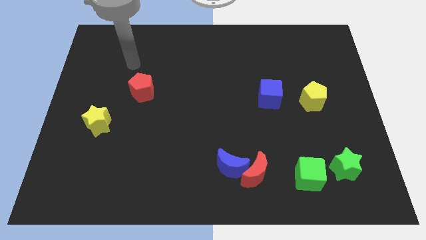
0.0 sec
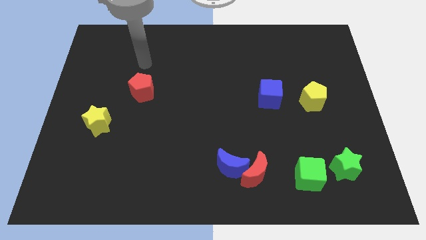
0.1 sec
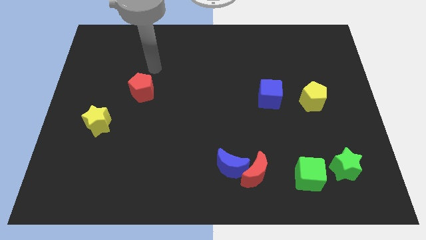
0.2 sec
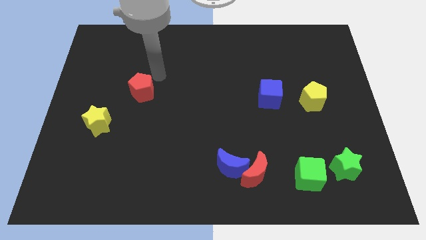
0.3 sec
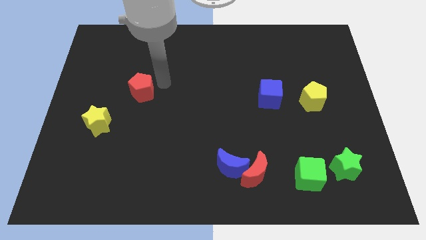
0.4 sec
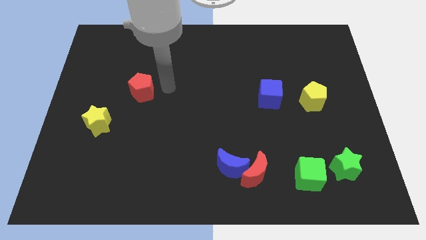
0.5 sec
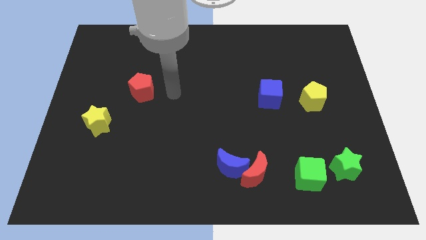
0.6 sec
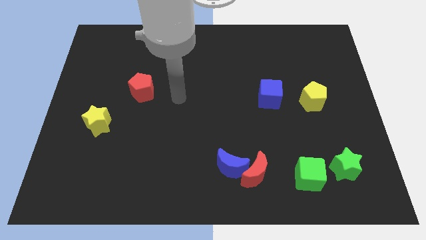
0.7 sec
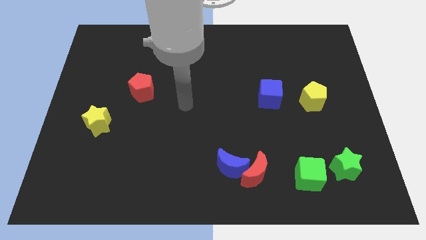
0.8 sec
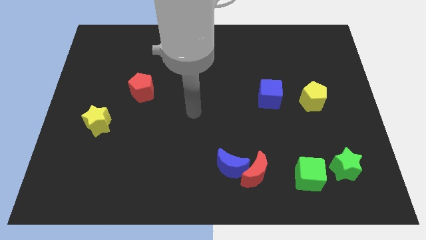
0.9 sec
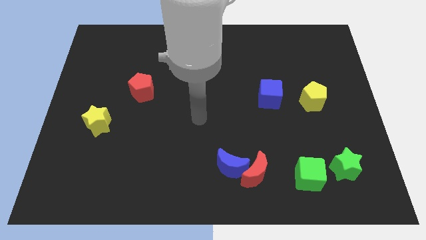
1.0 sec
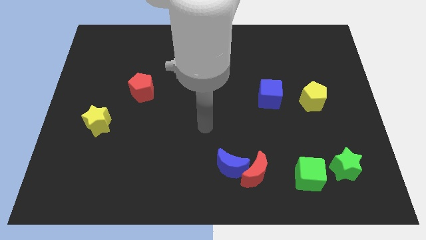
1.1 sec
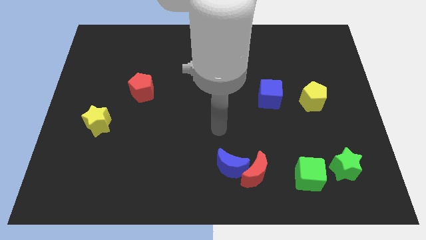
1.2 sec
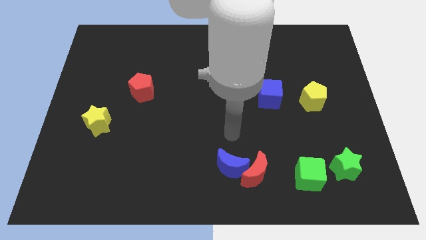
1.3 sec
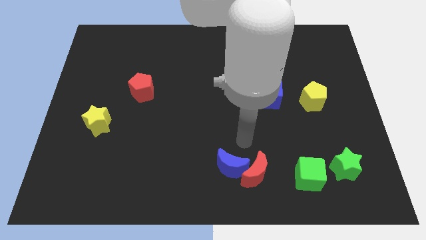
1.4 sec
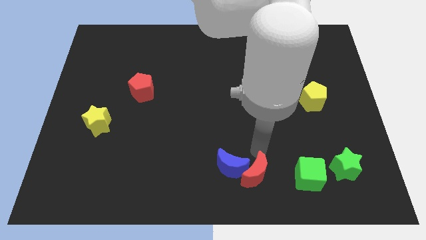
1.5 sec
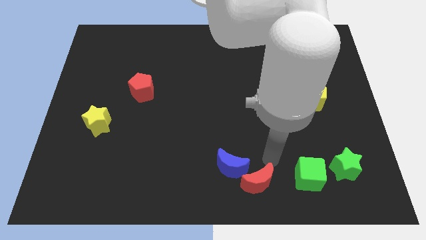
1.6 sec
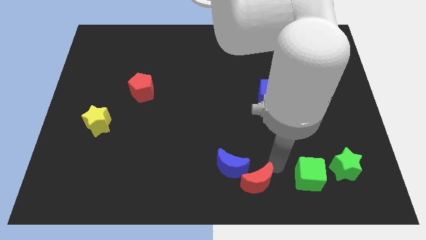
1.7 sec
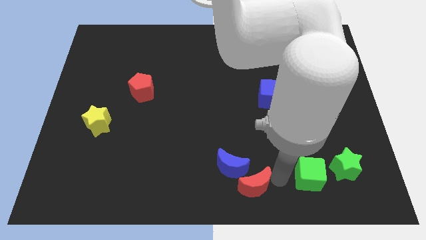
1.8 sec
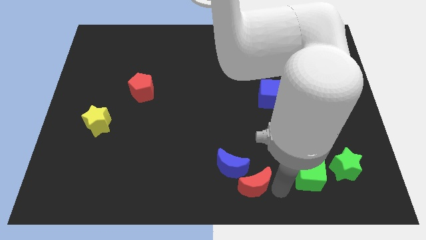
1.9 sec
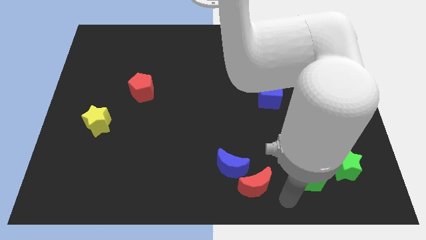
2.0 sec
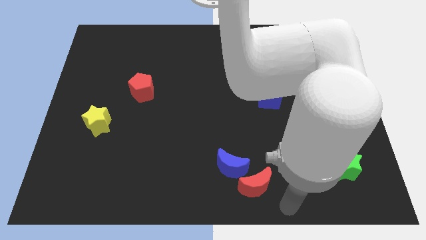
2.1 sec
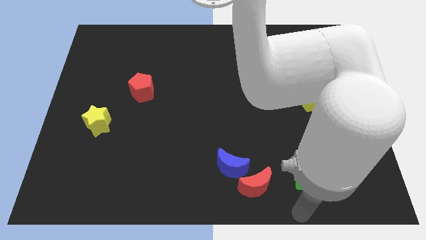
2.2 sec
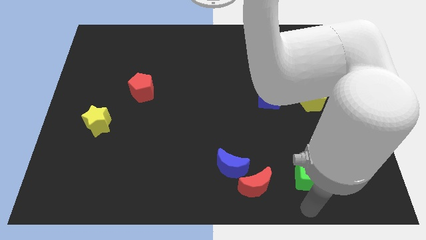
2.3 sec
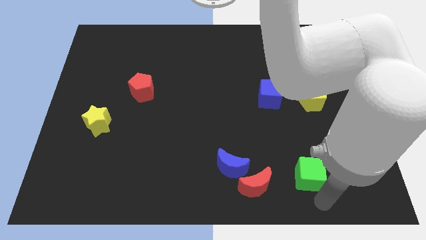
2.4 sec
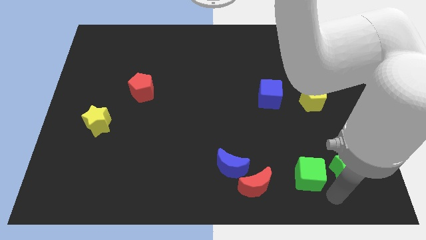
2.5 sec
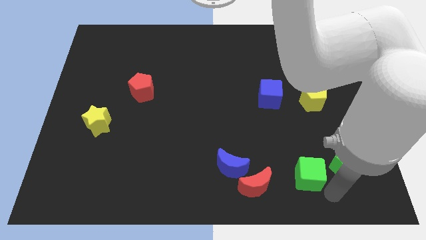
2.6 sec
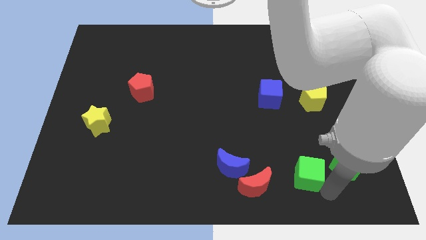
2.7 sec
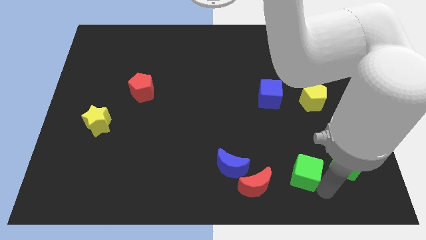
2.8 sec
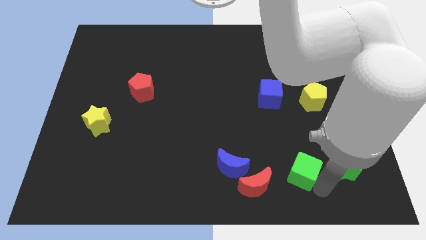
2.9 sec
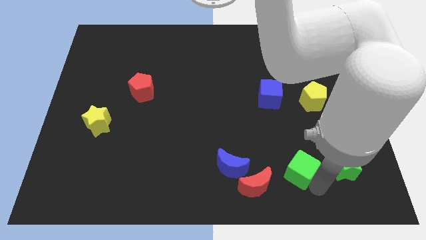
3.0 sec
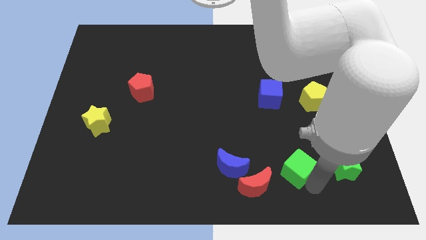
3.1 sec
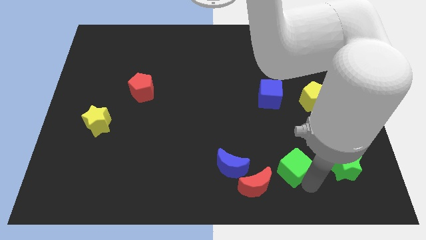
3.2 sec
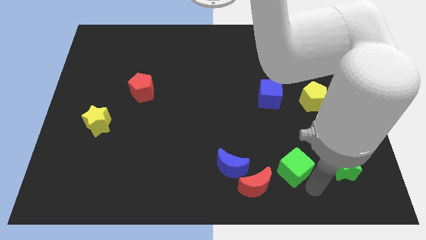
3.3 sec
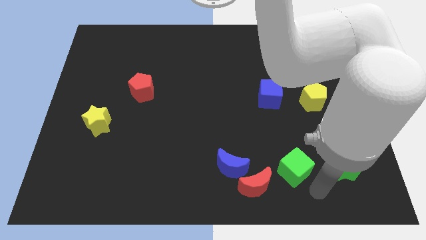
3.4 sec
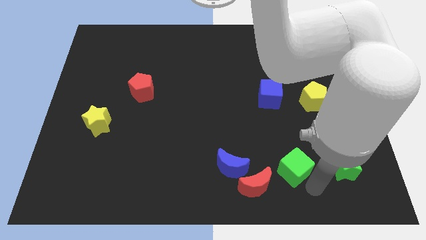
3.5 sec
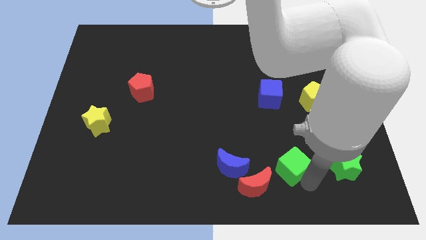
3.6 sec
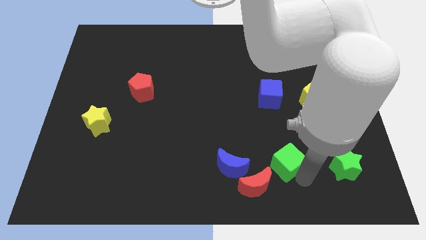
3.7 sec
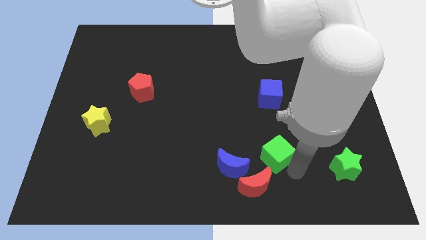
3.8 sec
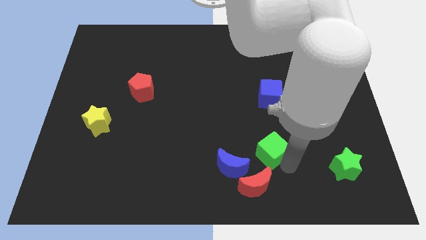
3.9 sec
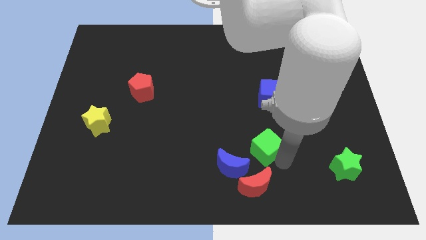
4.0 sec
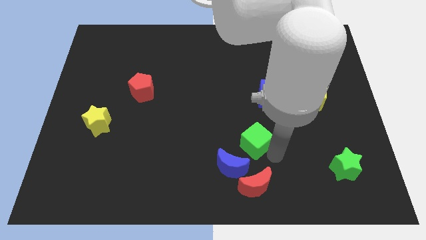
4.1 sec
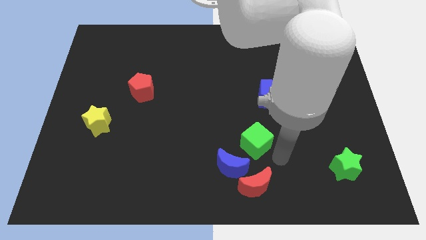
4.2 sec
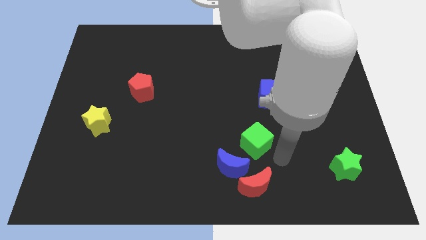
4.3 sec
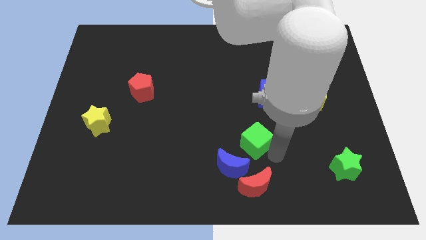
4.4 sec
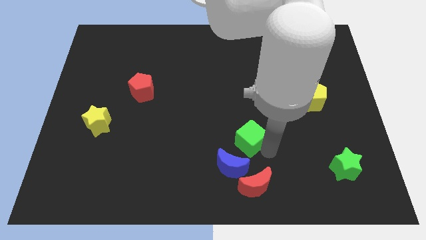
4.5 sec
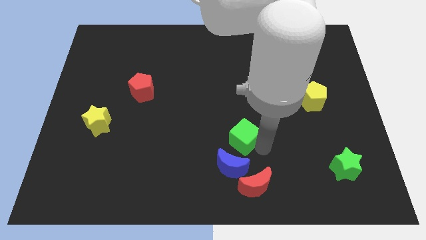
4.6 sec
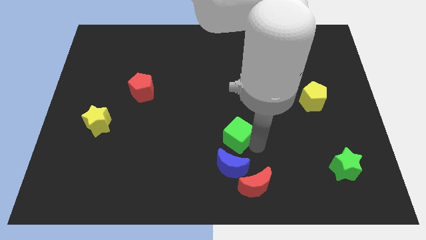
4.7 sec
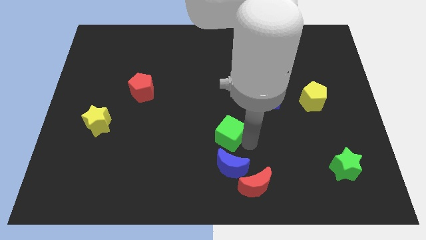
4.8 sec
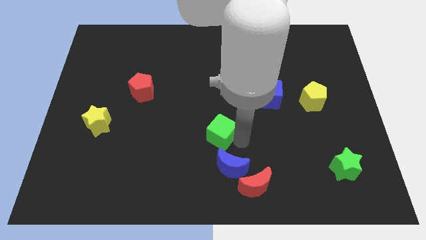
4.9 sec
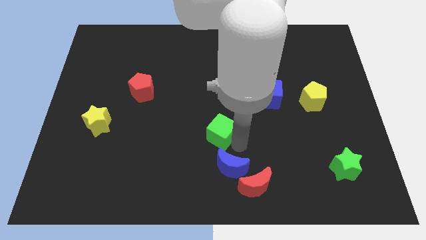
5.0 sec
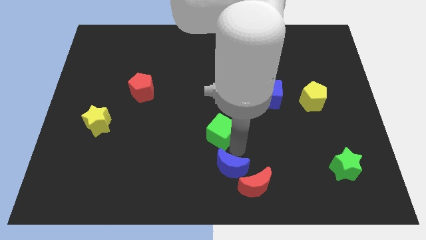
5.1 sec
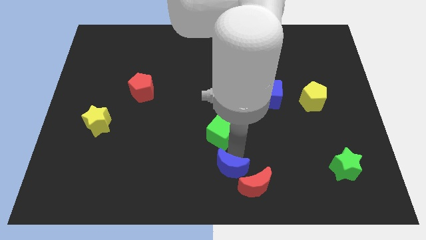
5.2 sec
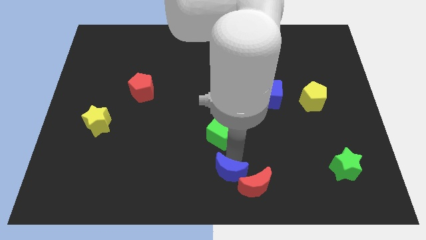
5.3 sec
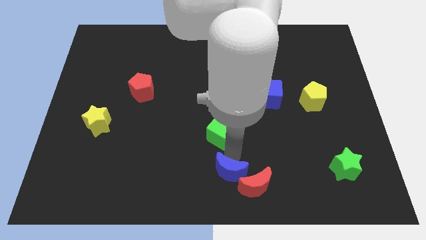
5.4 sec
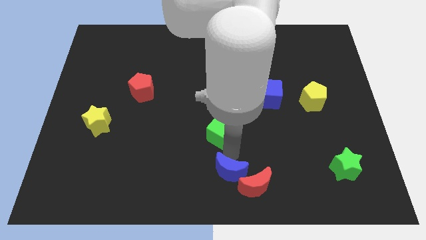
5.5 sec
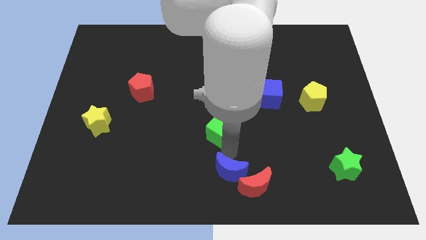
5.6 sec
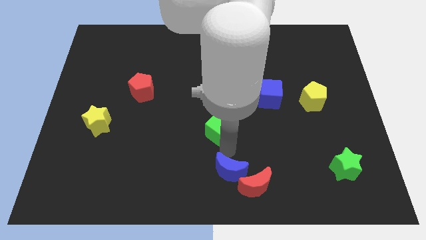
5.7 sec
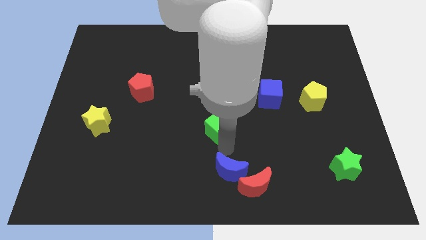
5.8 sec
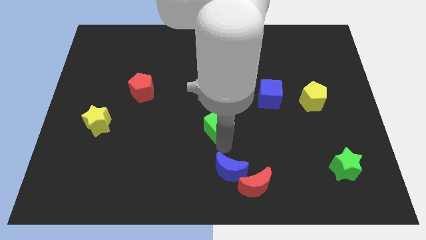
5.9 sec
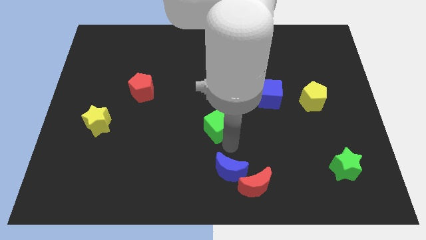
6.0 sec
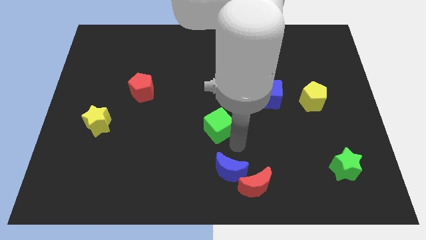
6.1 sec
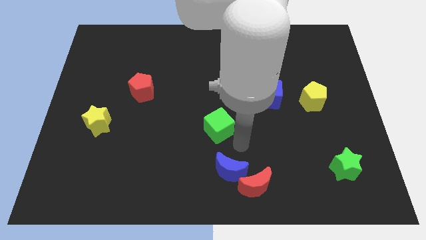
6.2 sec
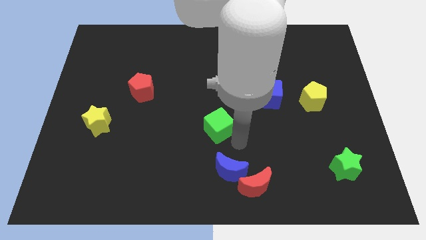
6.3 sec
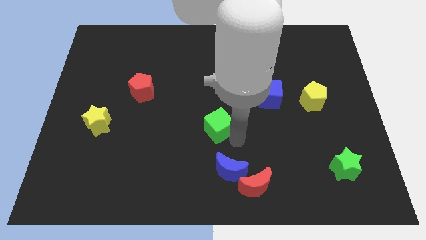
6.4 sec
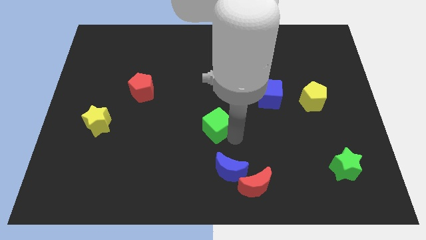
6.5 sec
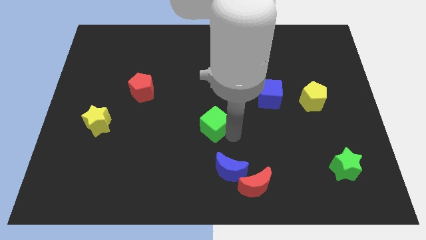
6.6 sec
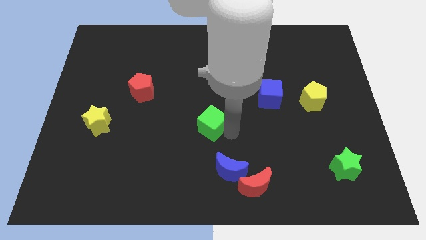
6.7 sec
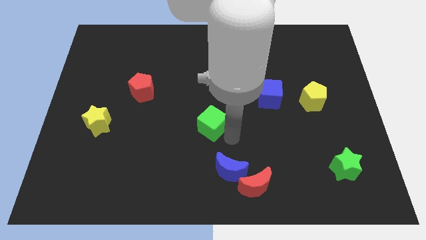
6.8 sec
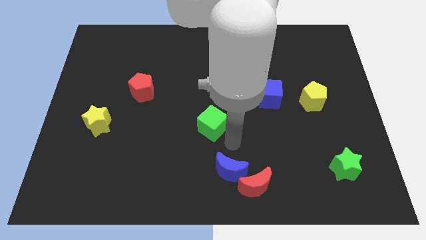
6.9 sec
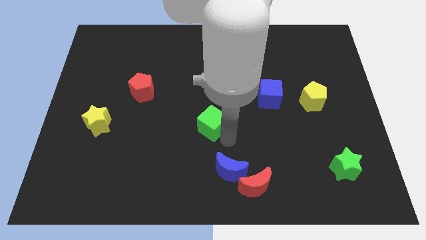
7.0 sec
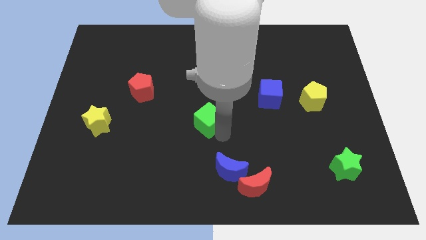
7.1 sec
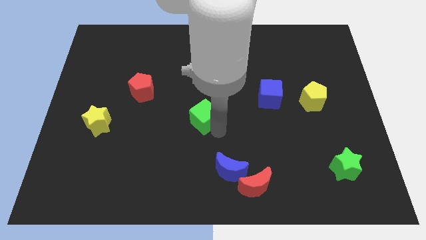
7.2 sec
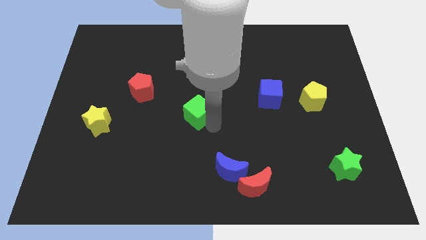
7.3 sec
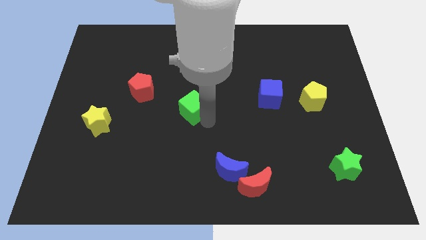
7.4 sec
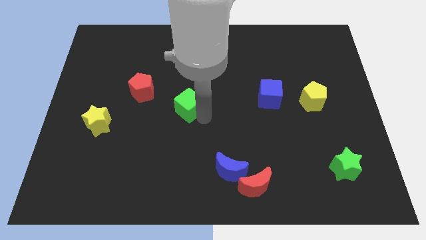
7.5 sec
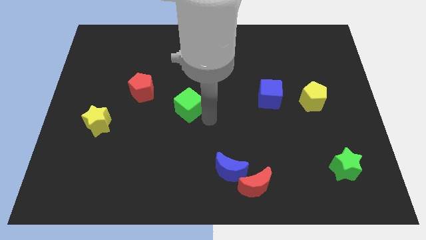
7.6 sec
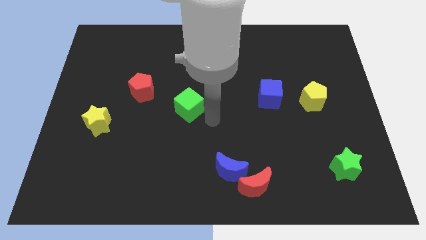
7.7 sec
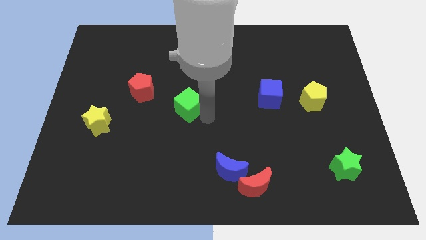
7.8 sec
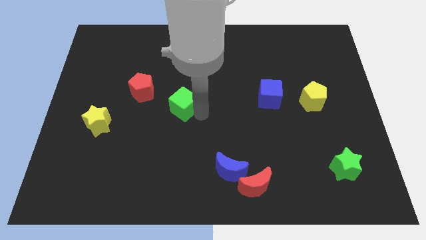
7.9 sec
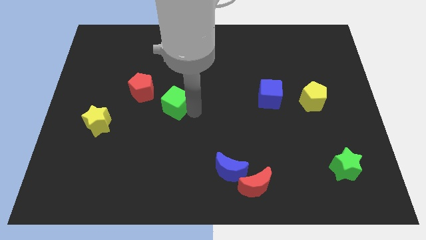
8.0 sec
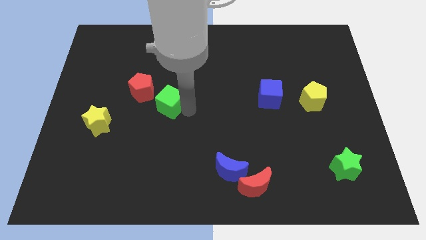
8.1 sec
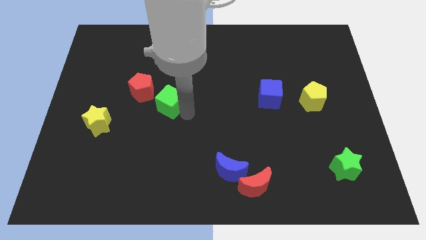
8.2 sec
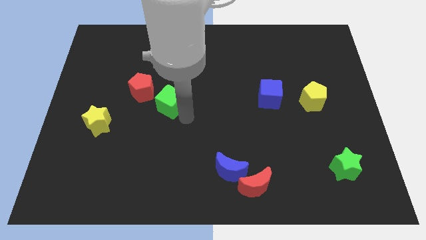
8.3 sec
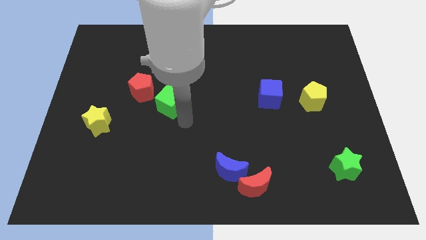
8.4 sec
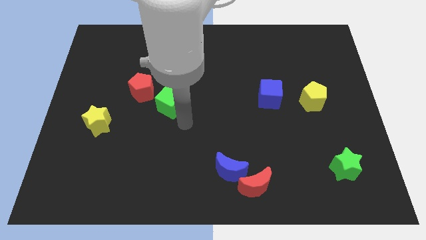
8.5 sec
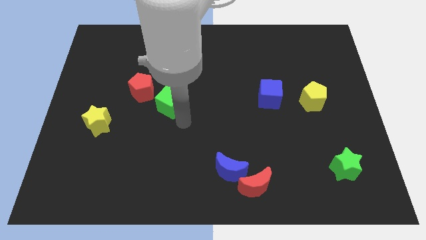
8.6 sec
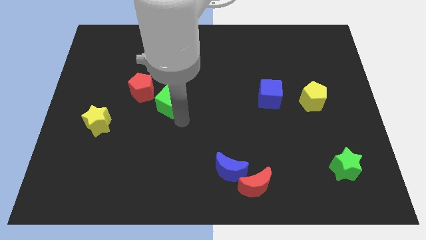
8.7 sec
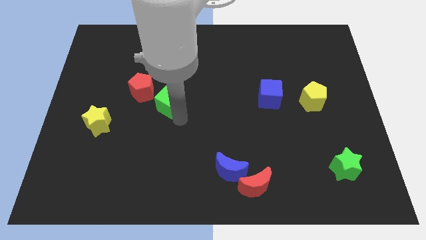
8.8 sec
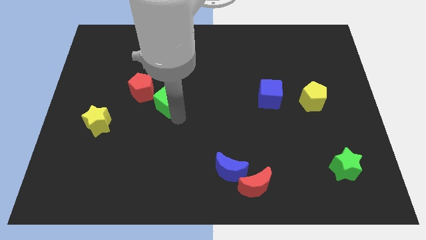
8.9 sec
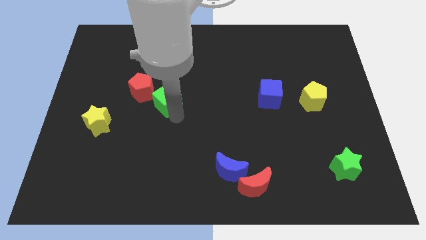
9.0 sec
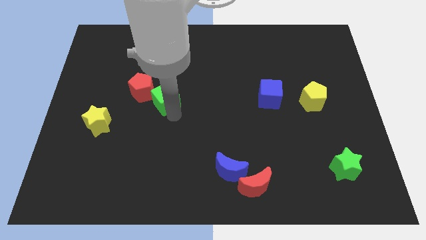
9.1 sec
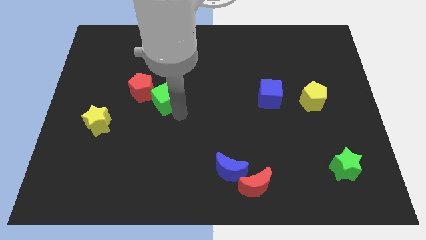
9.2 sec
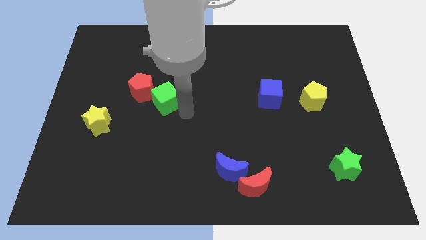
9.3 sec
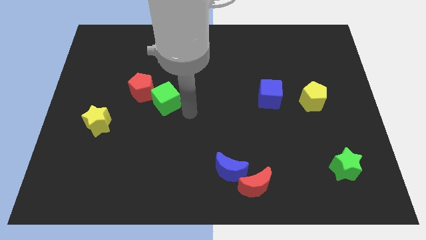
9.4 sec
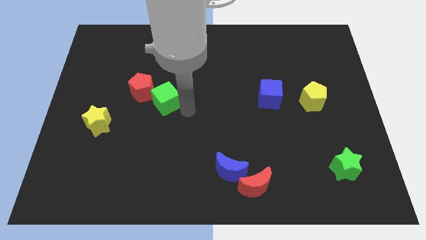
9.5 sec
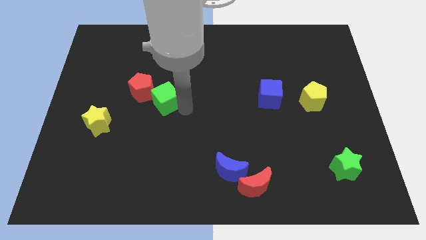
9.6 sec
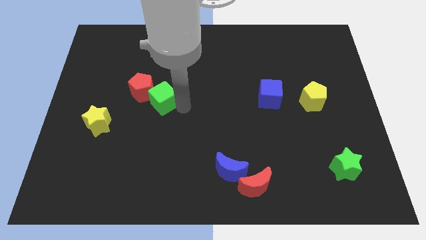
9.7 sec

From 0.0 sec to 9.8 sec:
put the green cube close to the red pentagon
